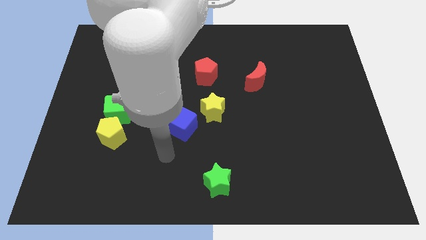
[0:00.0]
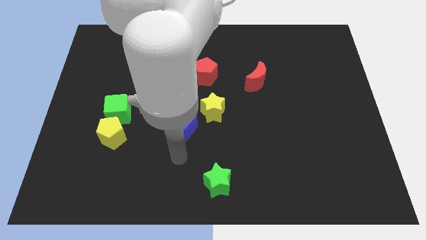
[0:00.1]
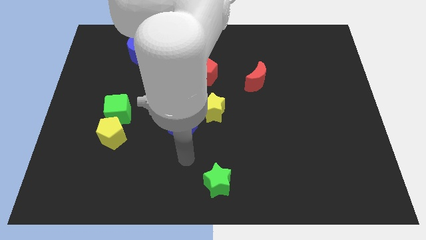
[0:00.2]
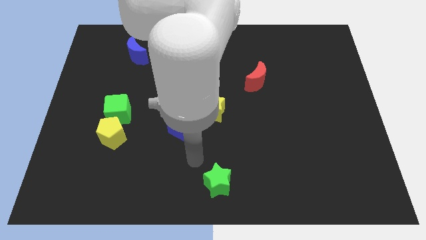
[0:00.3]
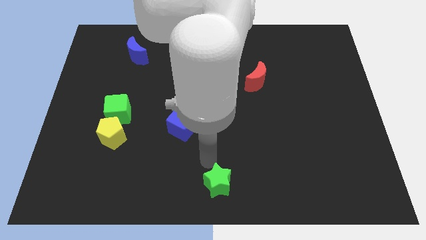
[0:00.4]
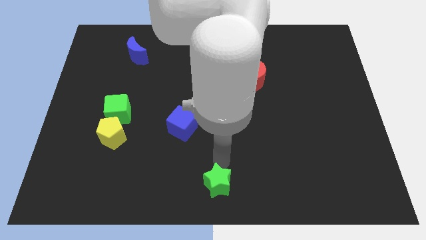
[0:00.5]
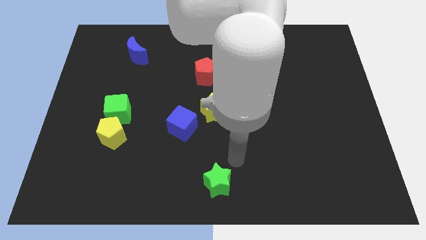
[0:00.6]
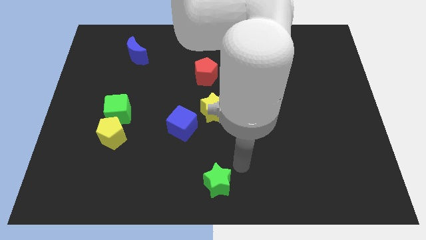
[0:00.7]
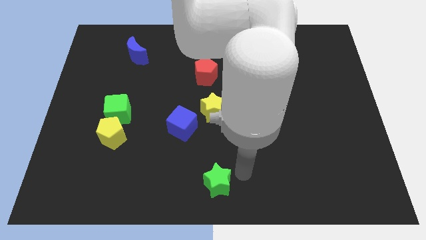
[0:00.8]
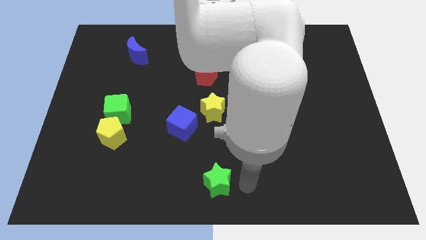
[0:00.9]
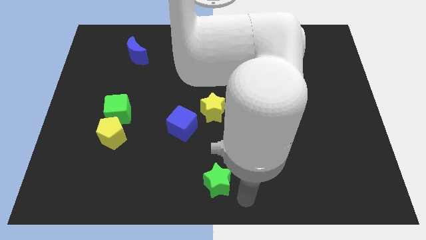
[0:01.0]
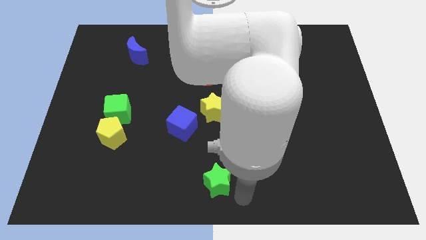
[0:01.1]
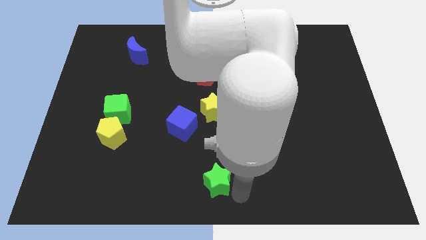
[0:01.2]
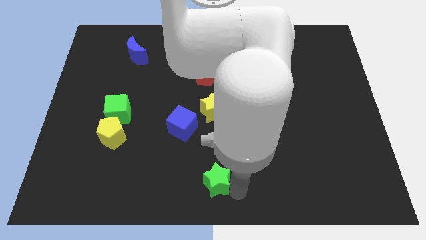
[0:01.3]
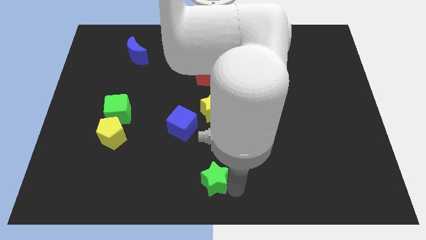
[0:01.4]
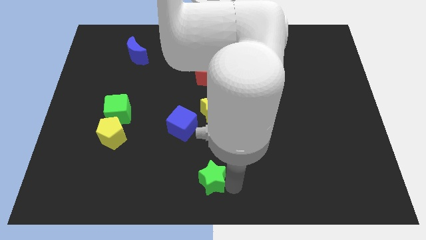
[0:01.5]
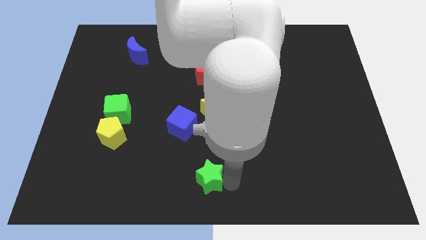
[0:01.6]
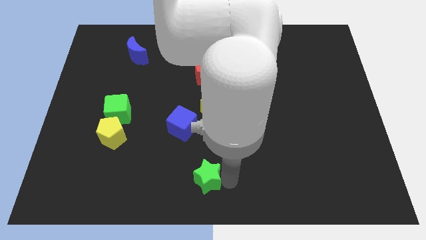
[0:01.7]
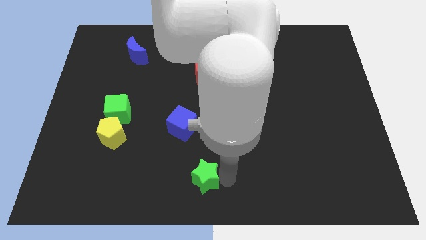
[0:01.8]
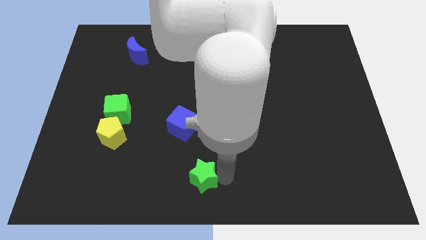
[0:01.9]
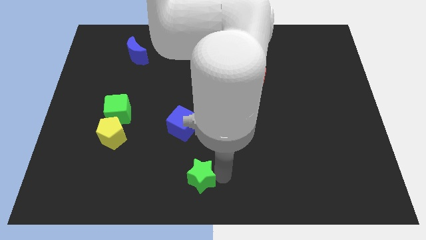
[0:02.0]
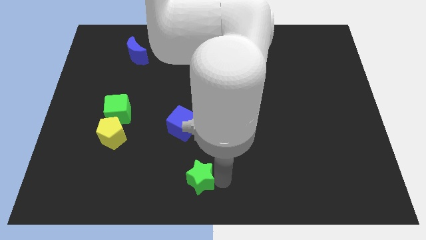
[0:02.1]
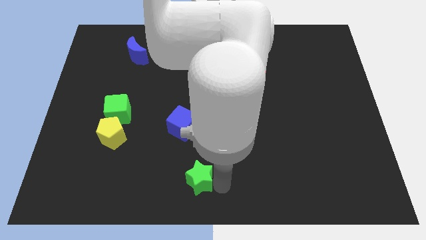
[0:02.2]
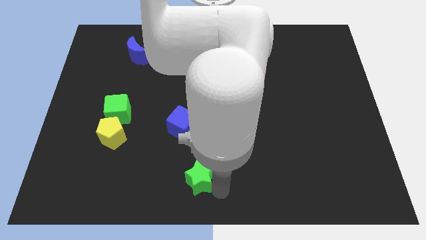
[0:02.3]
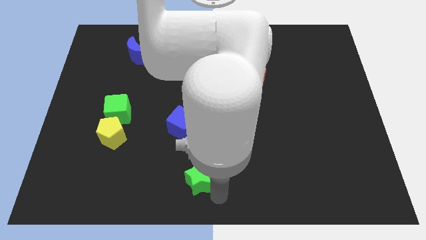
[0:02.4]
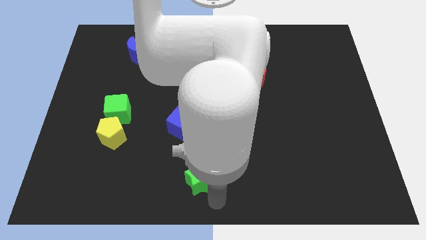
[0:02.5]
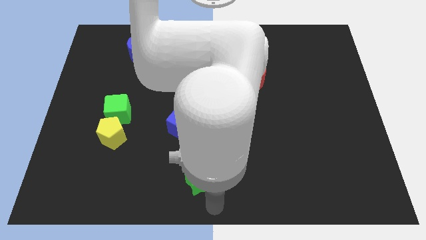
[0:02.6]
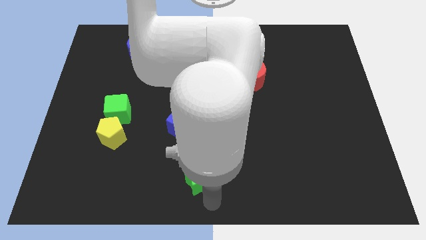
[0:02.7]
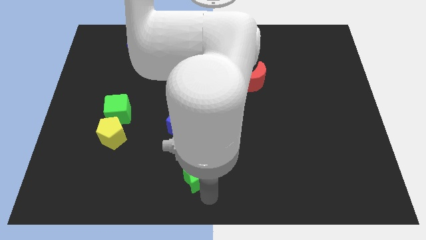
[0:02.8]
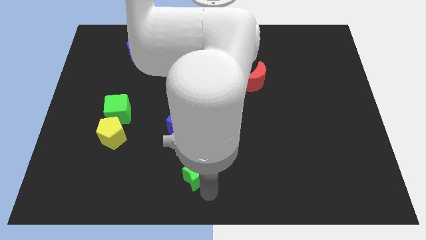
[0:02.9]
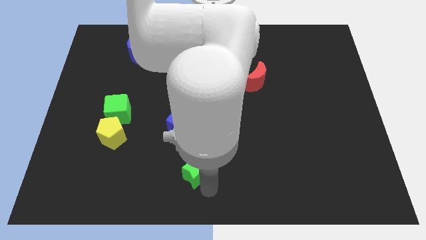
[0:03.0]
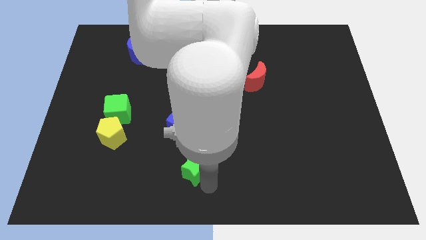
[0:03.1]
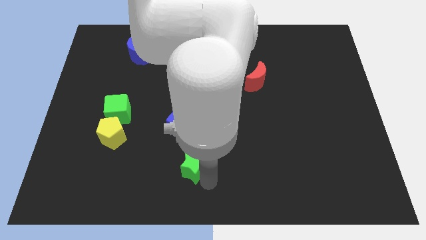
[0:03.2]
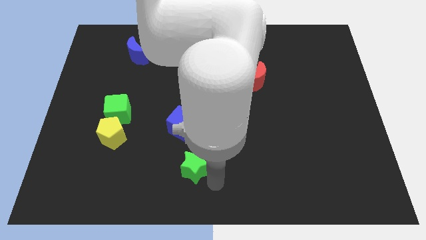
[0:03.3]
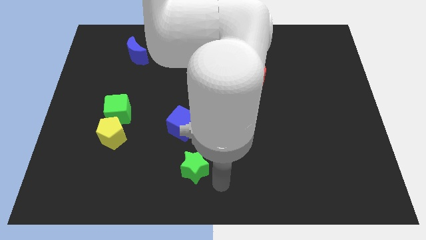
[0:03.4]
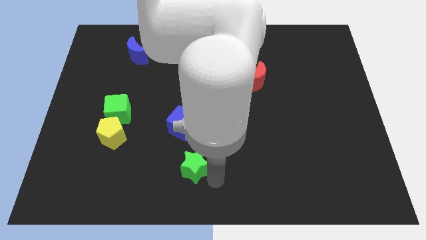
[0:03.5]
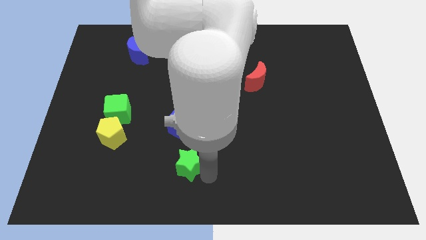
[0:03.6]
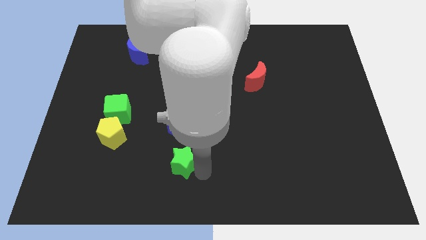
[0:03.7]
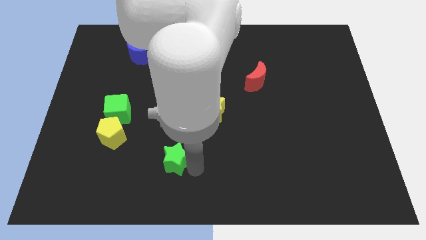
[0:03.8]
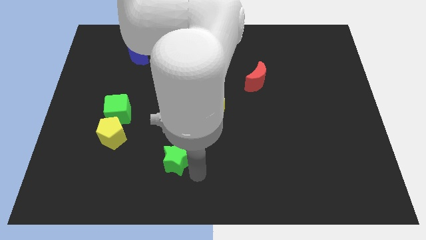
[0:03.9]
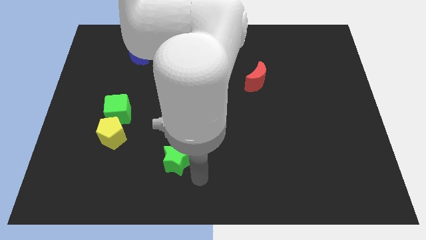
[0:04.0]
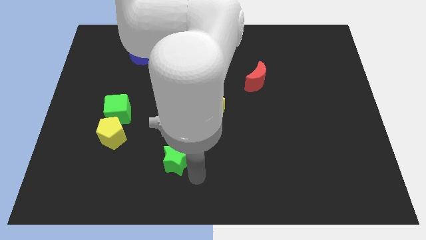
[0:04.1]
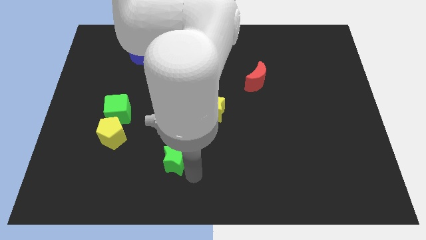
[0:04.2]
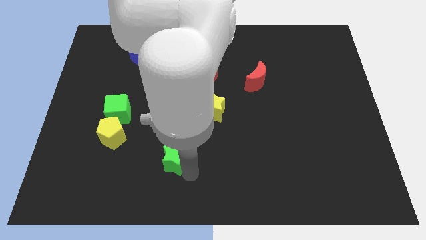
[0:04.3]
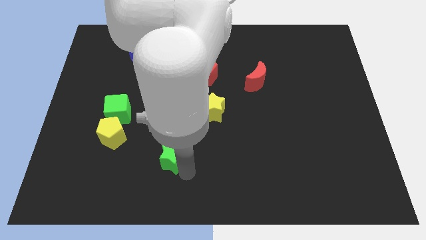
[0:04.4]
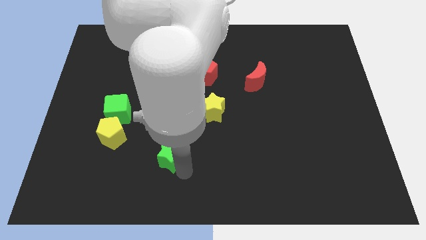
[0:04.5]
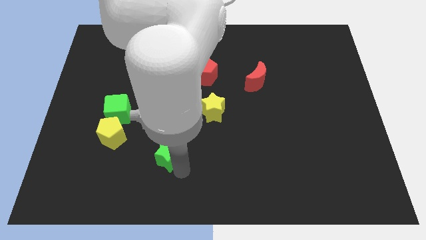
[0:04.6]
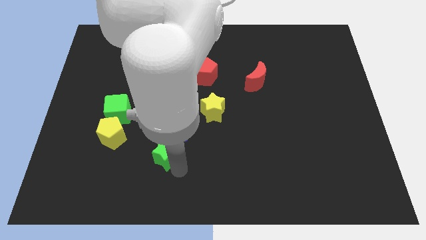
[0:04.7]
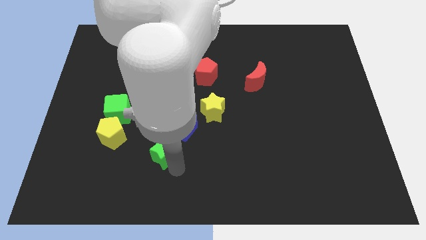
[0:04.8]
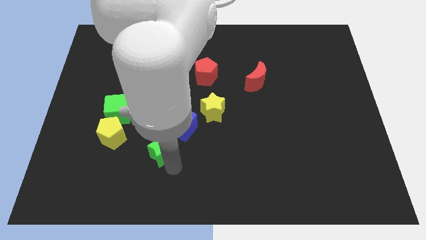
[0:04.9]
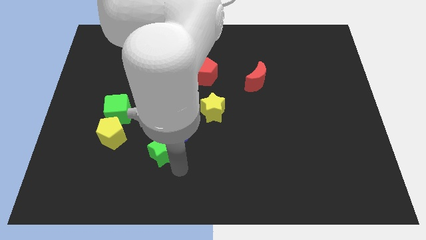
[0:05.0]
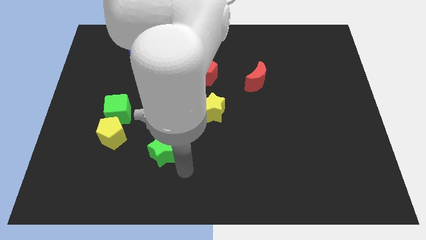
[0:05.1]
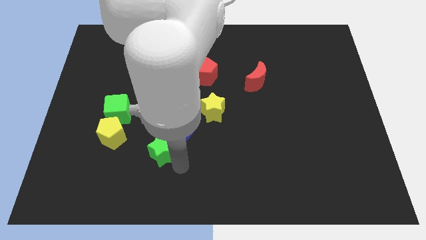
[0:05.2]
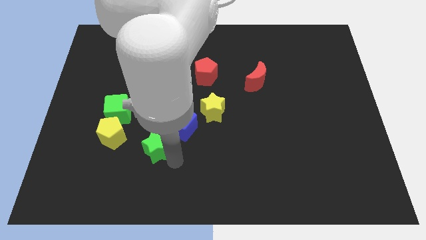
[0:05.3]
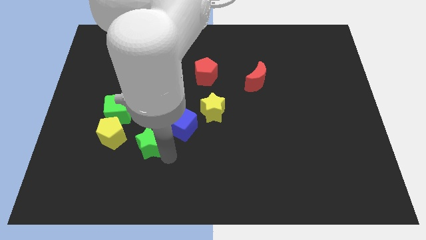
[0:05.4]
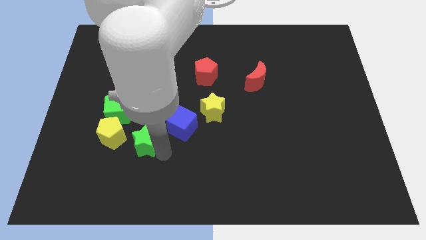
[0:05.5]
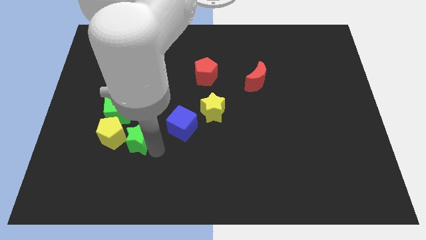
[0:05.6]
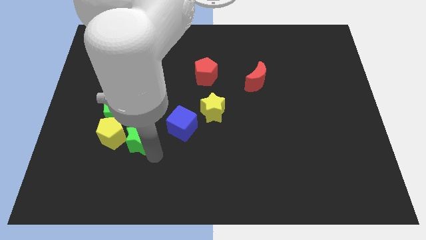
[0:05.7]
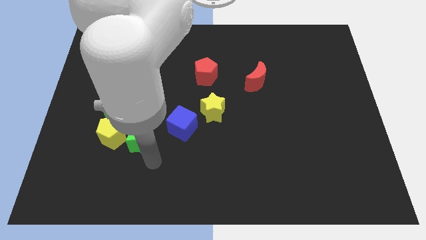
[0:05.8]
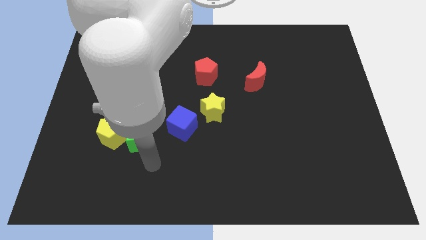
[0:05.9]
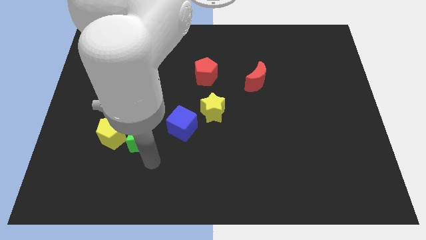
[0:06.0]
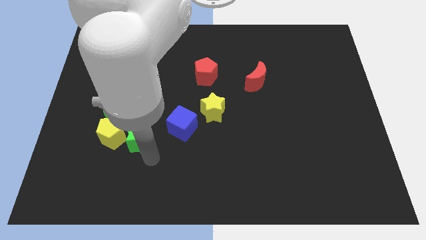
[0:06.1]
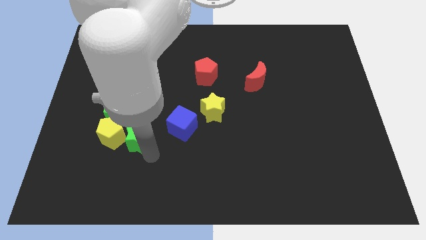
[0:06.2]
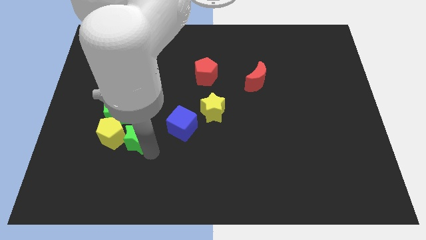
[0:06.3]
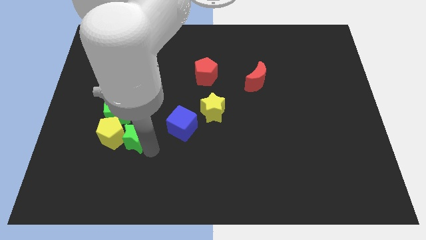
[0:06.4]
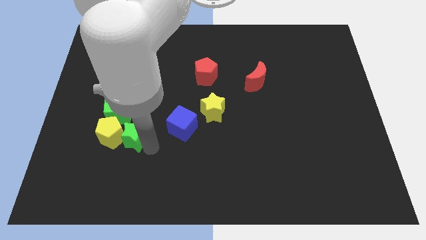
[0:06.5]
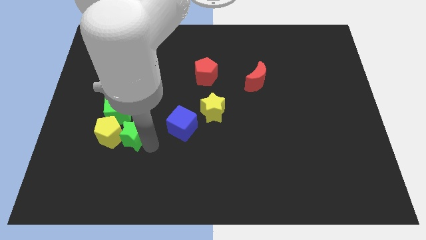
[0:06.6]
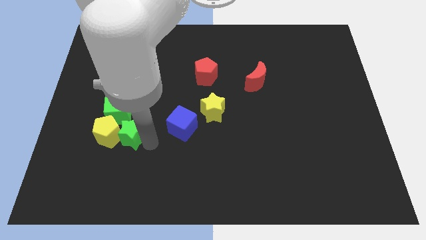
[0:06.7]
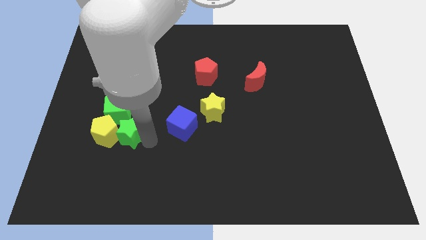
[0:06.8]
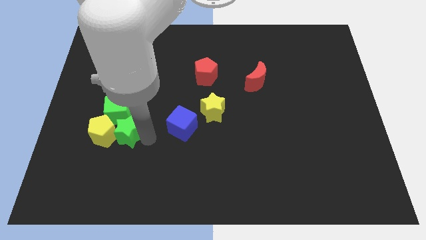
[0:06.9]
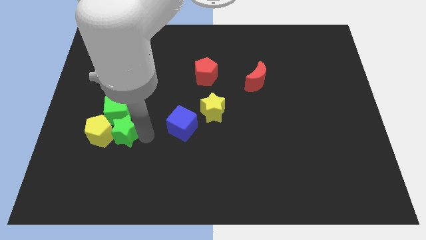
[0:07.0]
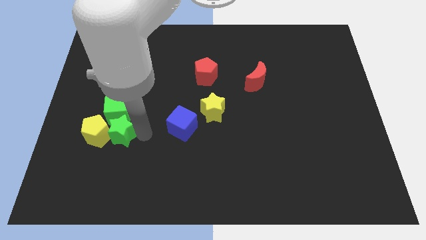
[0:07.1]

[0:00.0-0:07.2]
move the green star towards the green cube
